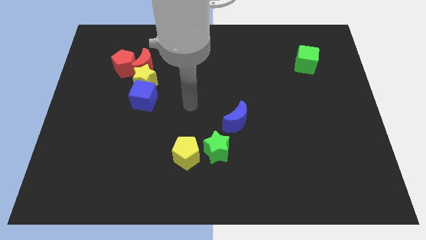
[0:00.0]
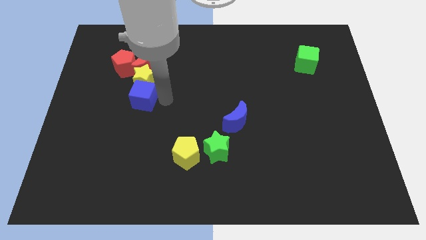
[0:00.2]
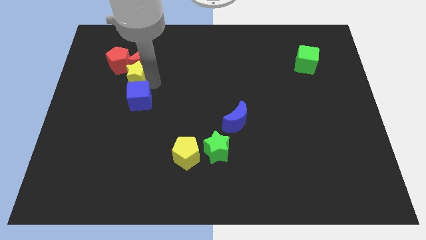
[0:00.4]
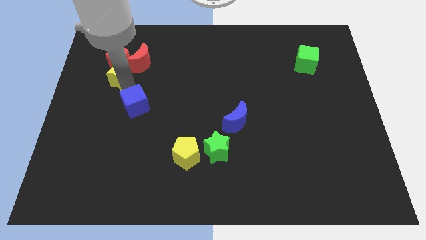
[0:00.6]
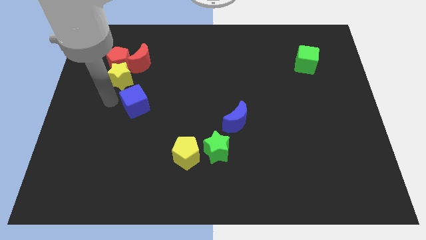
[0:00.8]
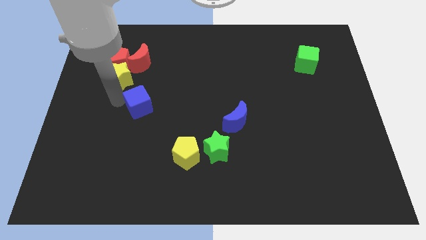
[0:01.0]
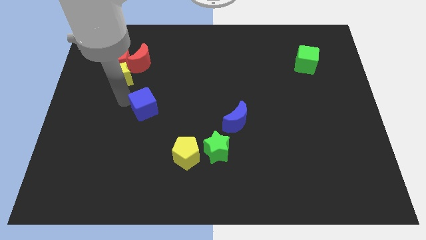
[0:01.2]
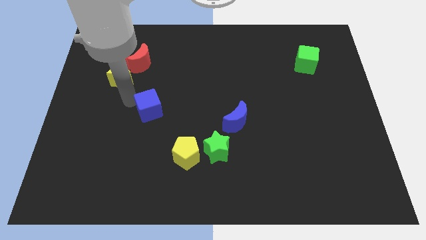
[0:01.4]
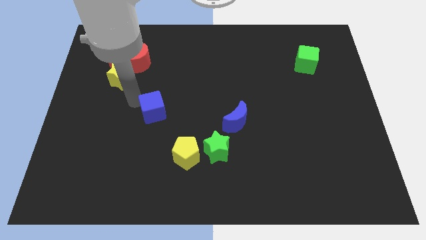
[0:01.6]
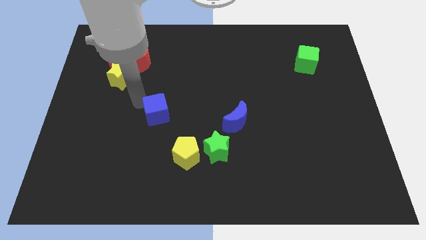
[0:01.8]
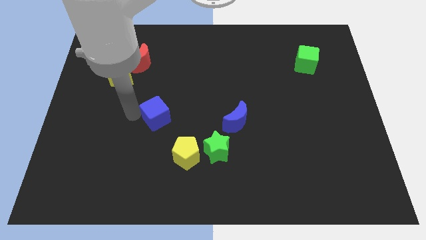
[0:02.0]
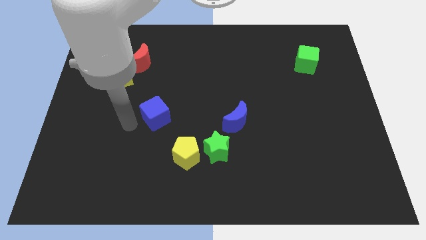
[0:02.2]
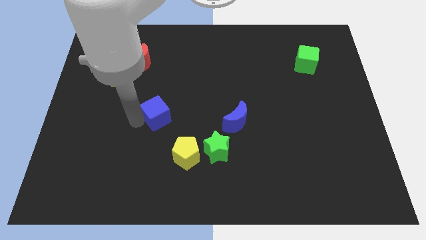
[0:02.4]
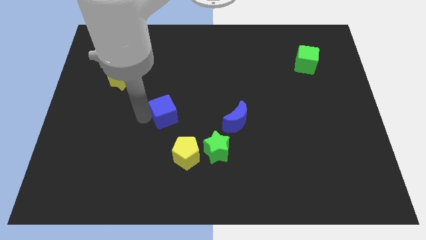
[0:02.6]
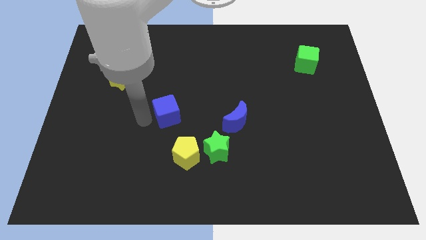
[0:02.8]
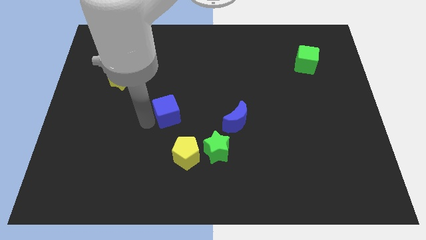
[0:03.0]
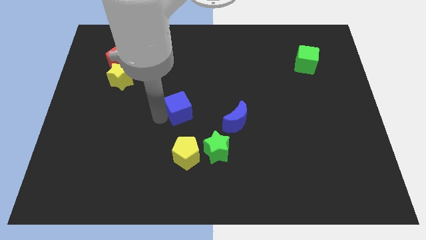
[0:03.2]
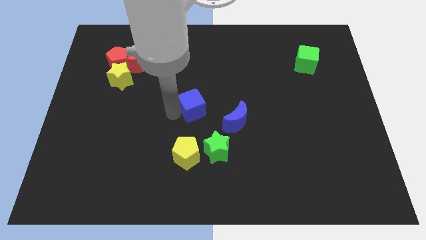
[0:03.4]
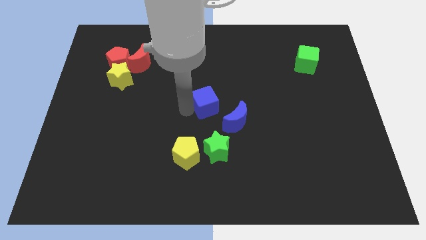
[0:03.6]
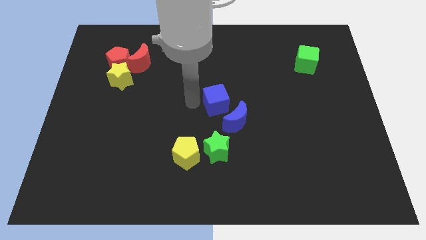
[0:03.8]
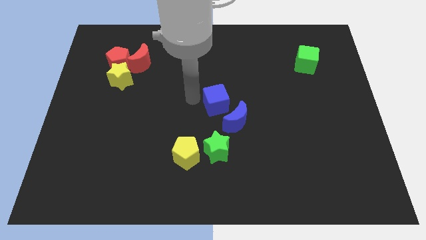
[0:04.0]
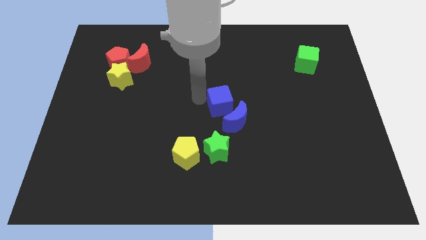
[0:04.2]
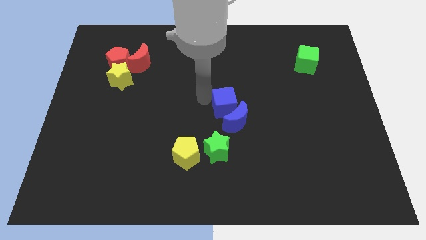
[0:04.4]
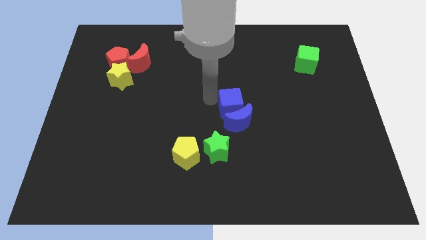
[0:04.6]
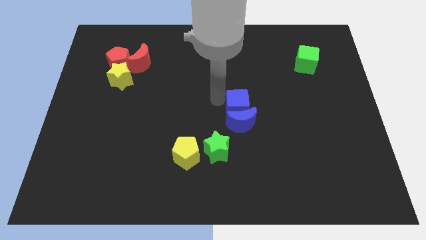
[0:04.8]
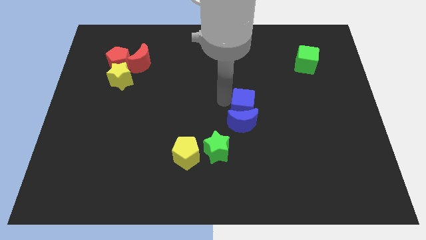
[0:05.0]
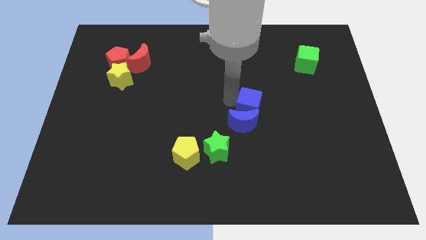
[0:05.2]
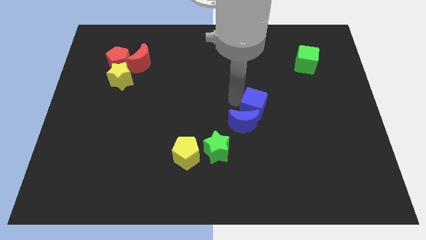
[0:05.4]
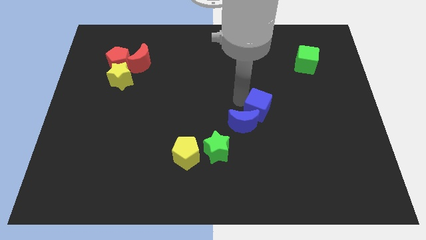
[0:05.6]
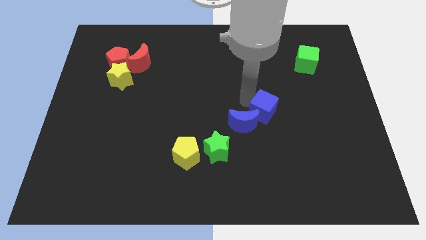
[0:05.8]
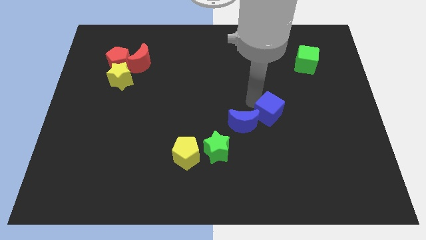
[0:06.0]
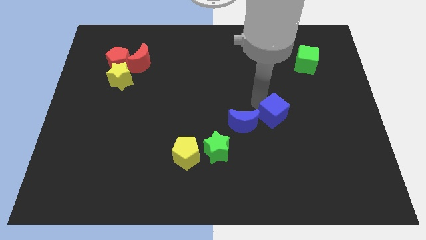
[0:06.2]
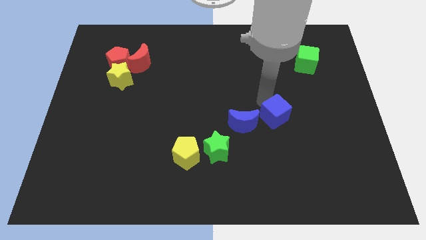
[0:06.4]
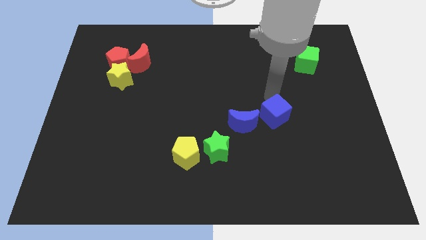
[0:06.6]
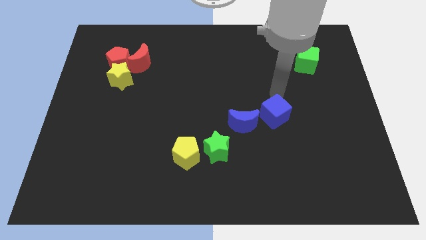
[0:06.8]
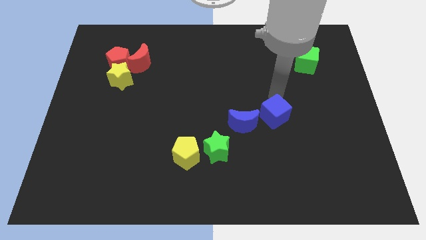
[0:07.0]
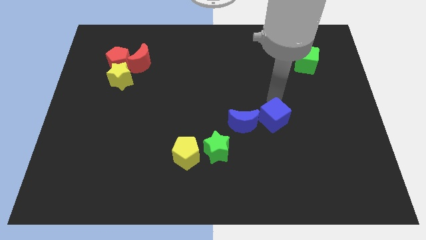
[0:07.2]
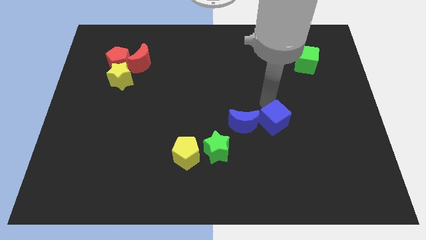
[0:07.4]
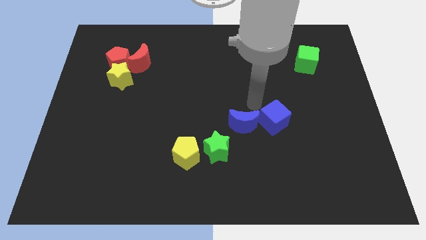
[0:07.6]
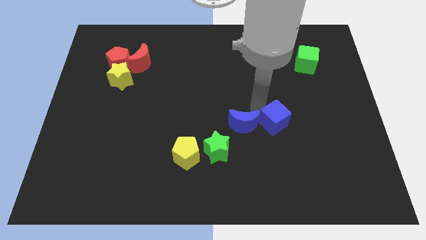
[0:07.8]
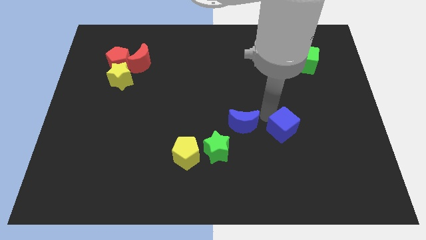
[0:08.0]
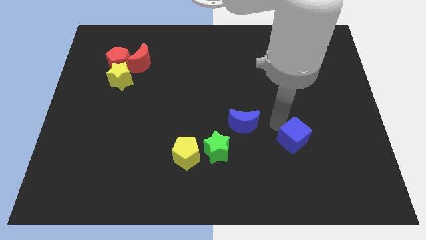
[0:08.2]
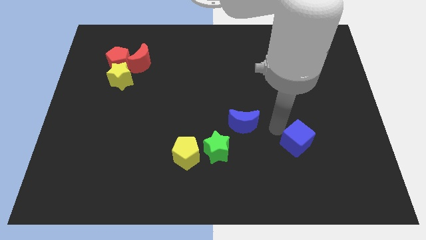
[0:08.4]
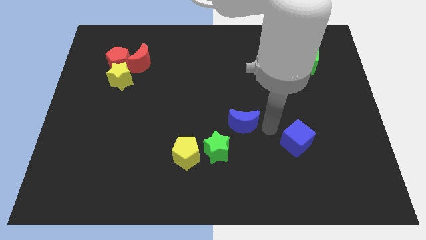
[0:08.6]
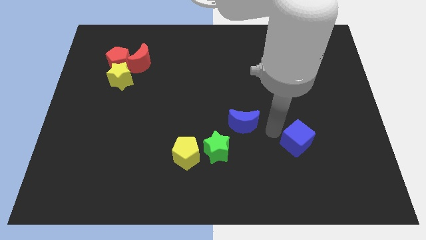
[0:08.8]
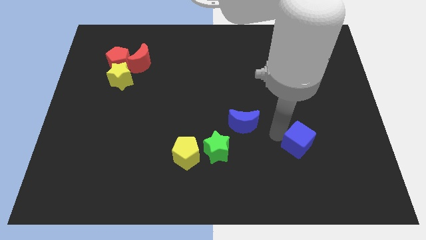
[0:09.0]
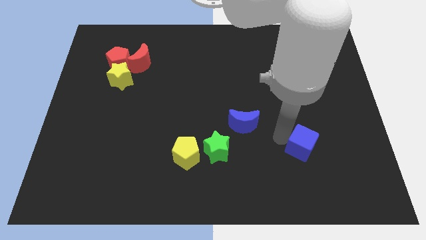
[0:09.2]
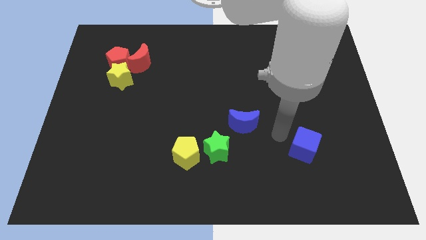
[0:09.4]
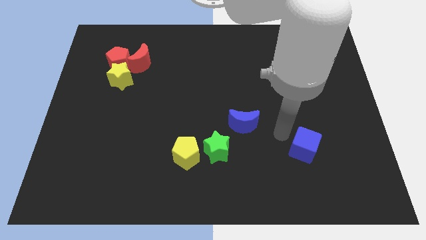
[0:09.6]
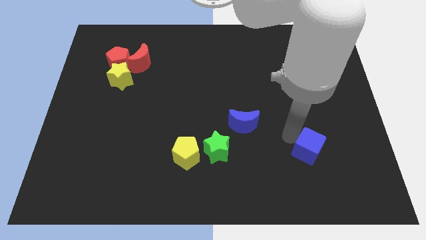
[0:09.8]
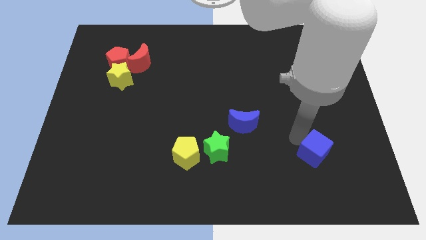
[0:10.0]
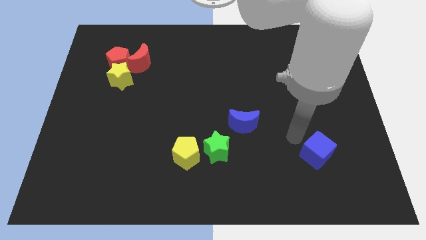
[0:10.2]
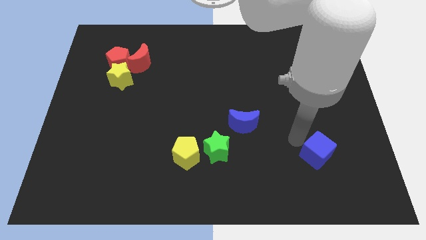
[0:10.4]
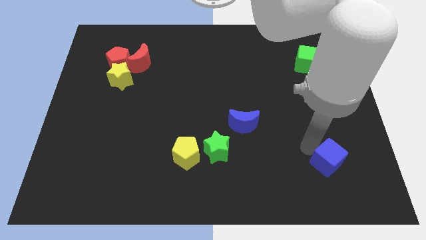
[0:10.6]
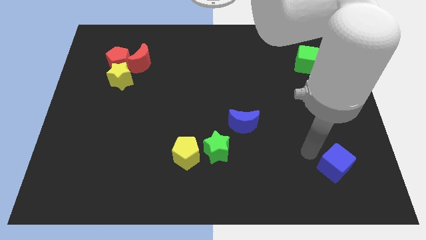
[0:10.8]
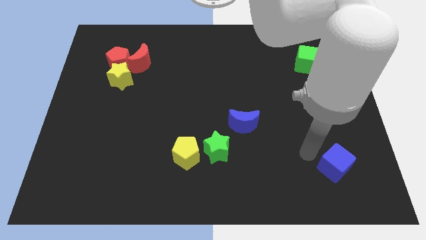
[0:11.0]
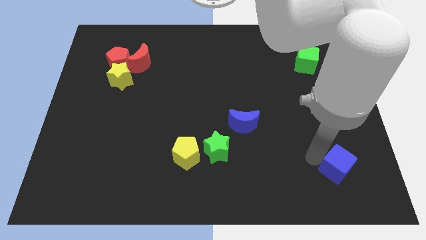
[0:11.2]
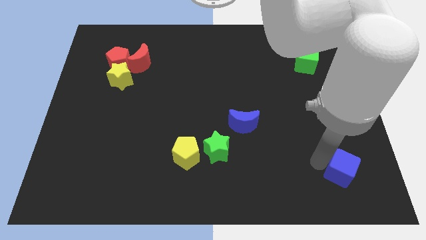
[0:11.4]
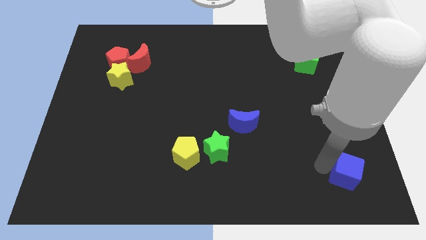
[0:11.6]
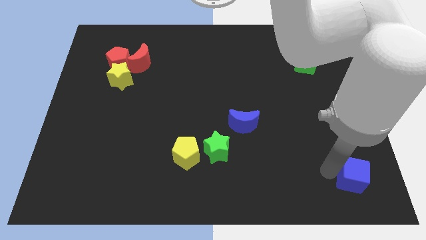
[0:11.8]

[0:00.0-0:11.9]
put the blue cube to the lower right corner
